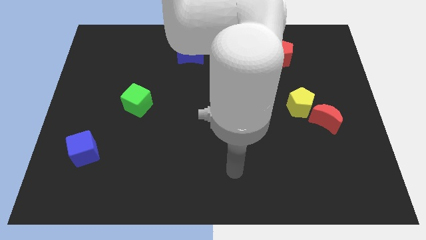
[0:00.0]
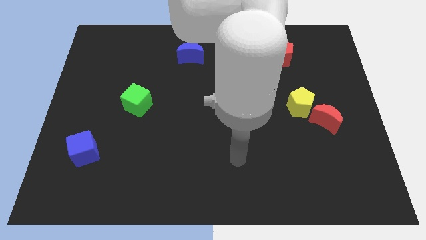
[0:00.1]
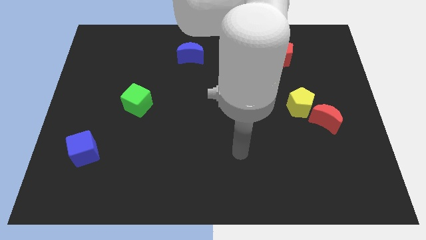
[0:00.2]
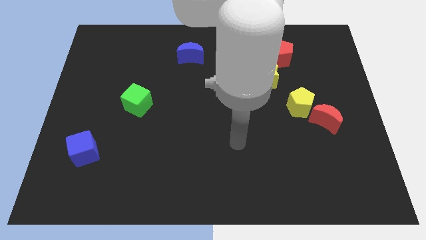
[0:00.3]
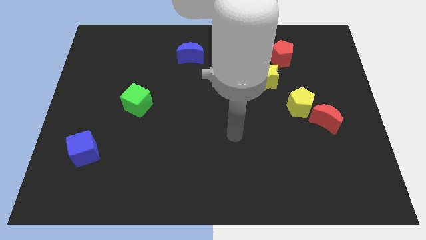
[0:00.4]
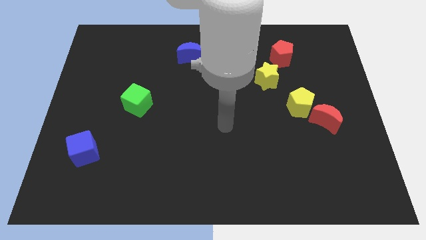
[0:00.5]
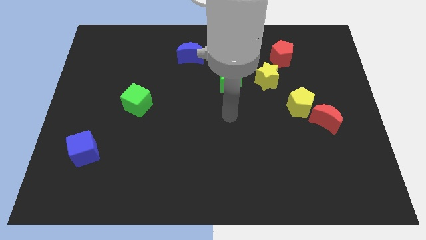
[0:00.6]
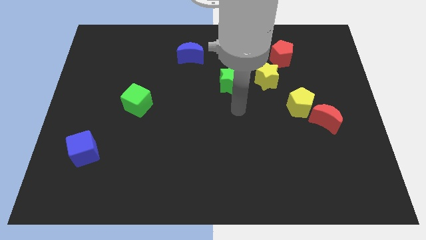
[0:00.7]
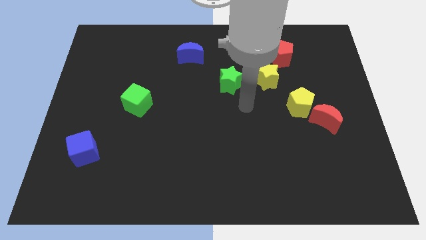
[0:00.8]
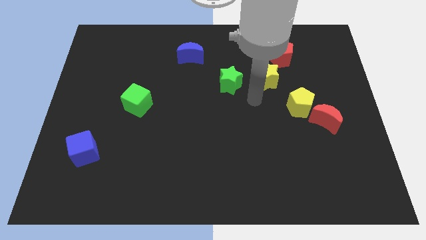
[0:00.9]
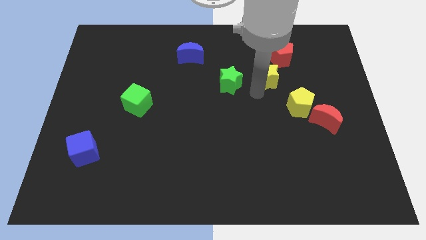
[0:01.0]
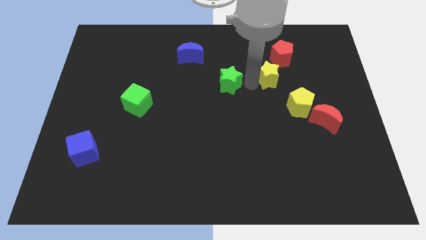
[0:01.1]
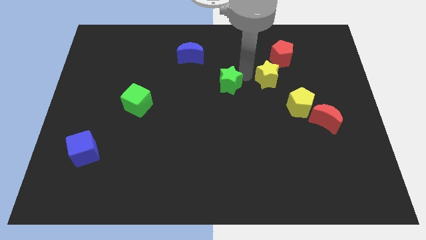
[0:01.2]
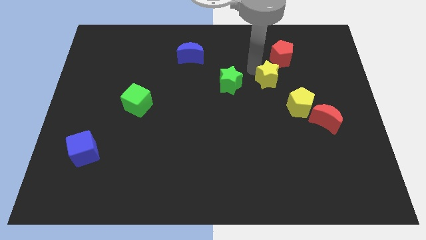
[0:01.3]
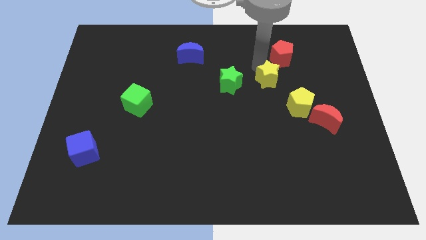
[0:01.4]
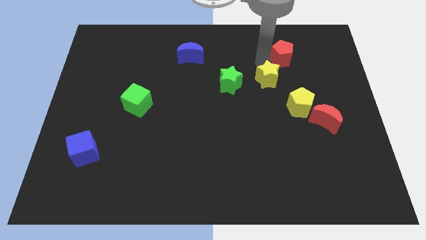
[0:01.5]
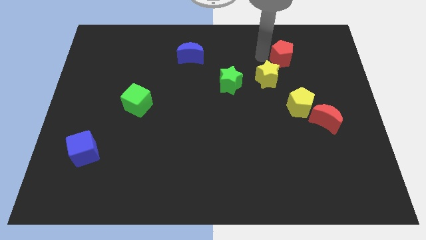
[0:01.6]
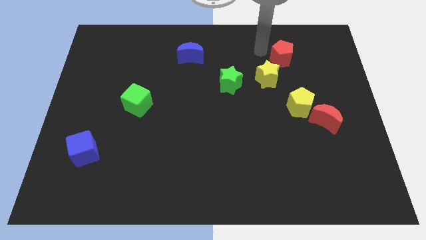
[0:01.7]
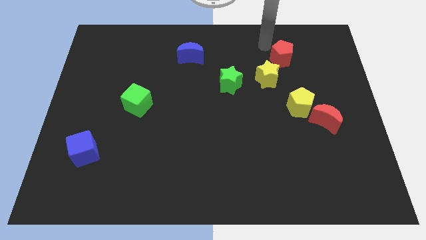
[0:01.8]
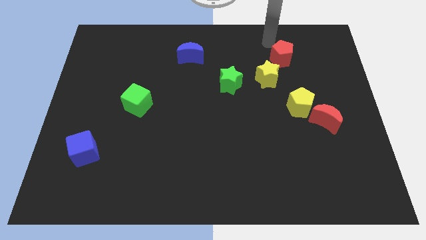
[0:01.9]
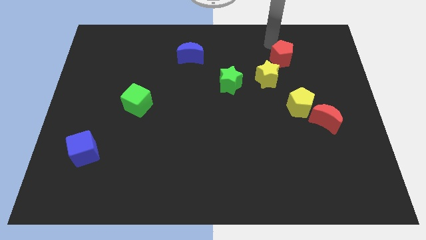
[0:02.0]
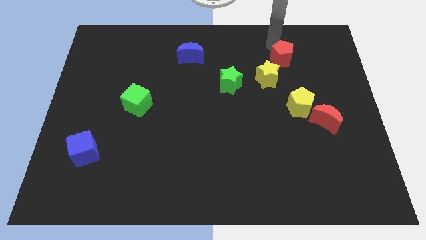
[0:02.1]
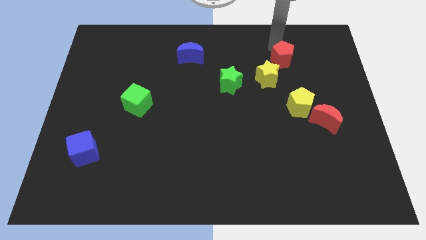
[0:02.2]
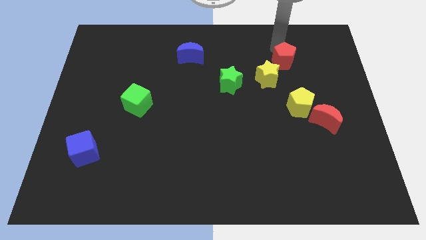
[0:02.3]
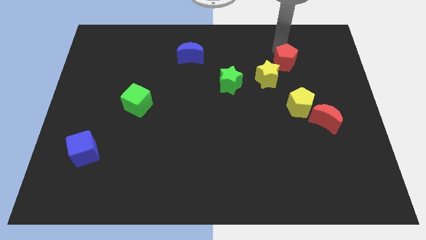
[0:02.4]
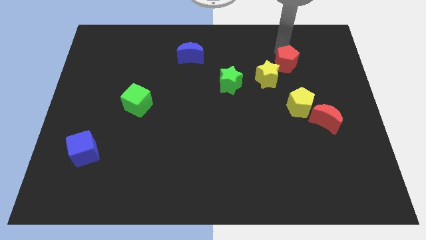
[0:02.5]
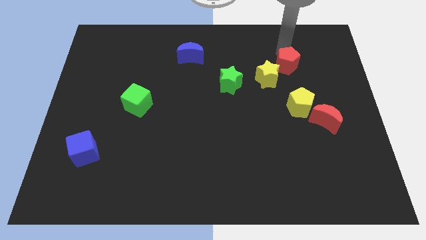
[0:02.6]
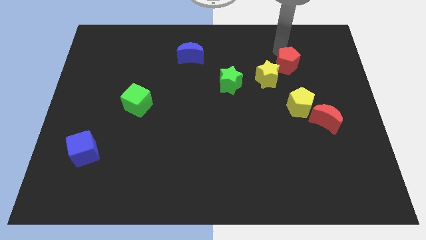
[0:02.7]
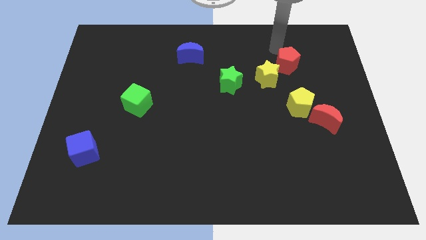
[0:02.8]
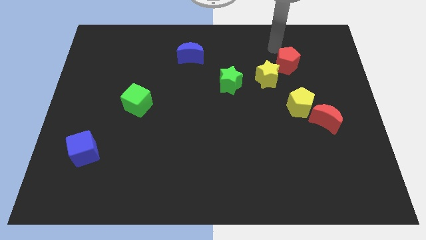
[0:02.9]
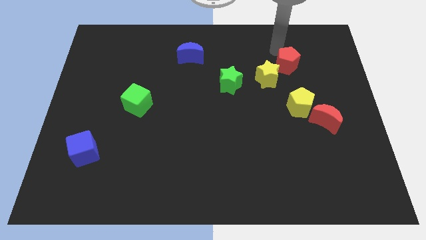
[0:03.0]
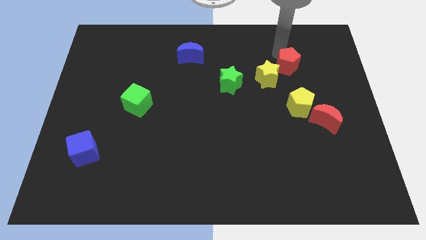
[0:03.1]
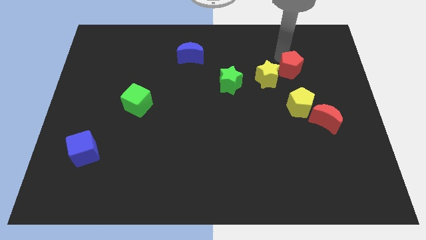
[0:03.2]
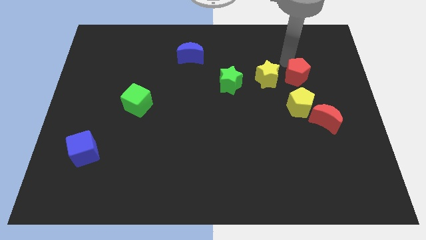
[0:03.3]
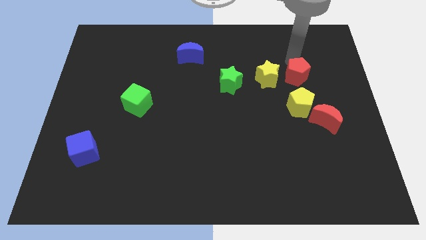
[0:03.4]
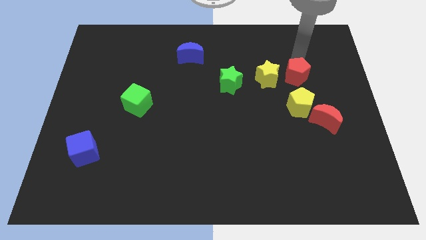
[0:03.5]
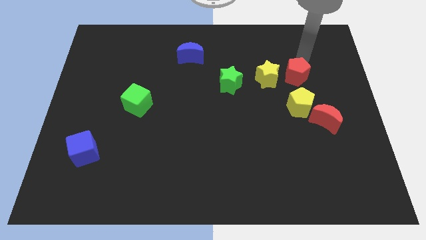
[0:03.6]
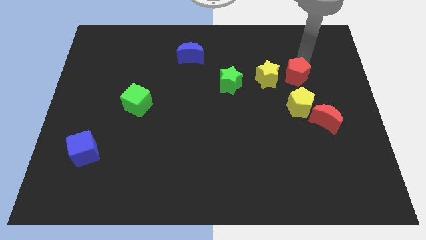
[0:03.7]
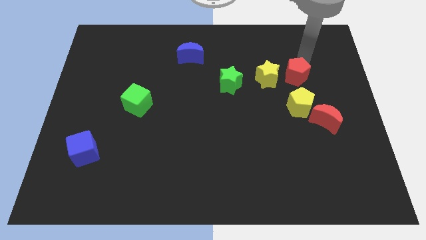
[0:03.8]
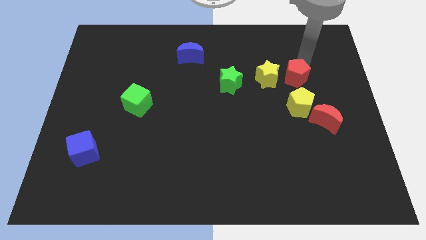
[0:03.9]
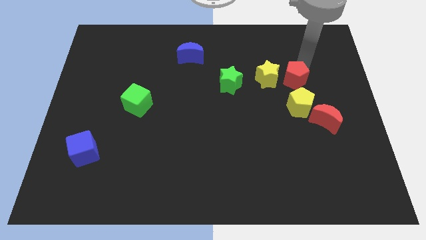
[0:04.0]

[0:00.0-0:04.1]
move the red pentagon a little bit down

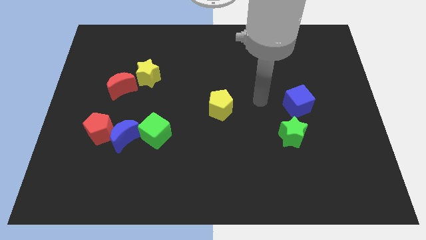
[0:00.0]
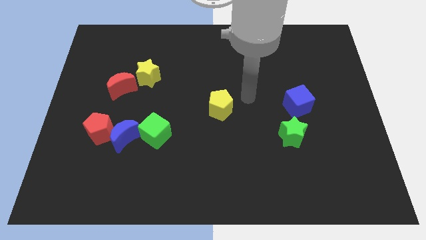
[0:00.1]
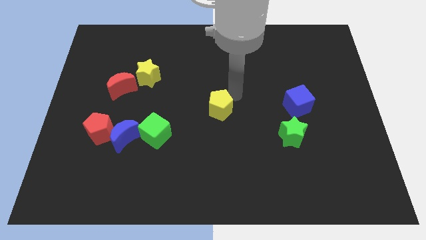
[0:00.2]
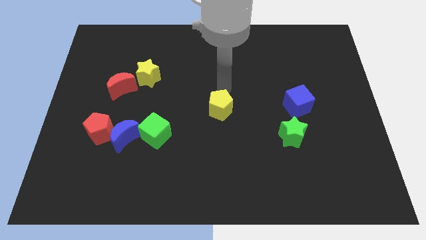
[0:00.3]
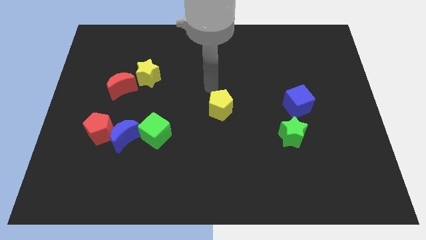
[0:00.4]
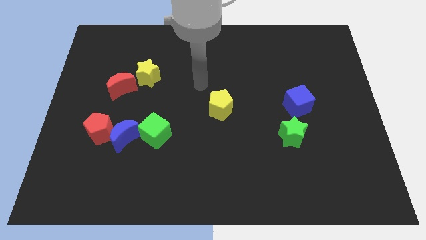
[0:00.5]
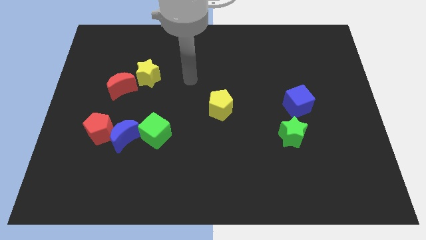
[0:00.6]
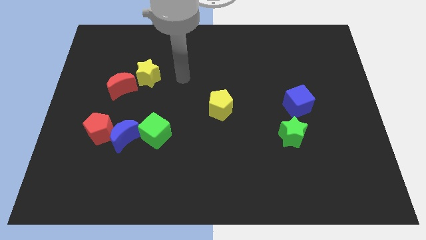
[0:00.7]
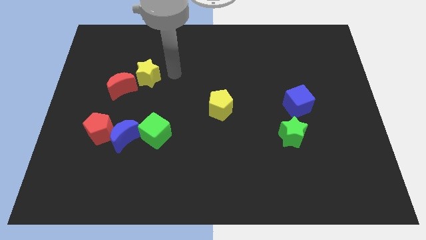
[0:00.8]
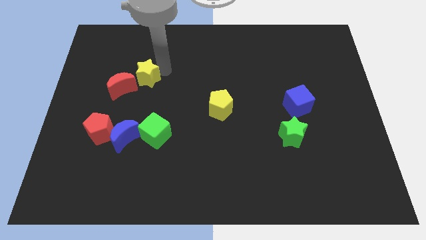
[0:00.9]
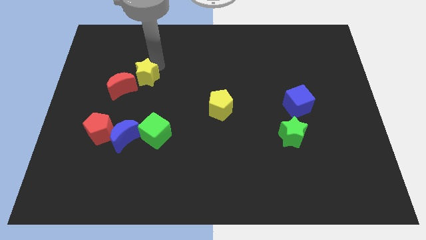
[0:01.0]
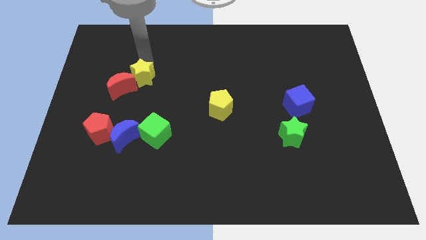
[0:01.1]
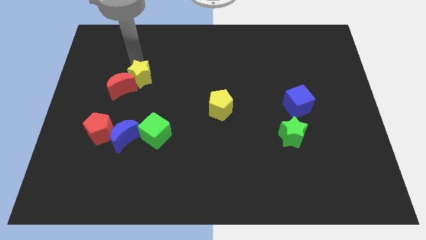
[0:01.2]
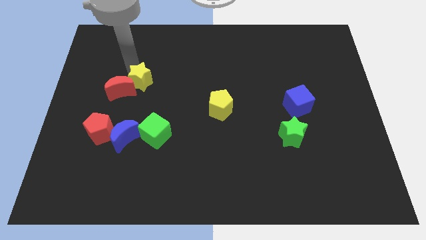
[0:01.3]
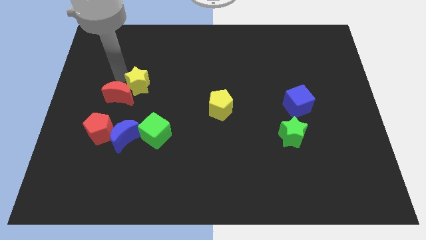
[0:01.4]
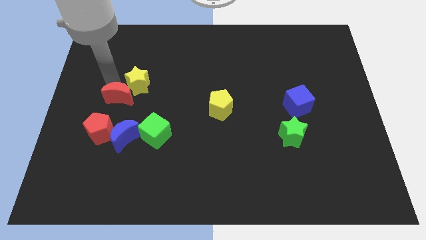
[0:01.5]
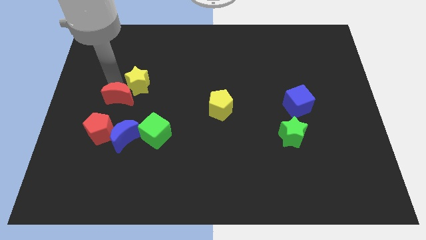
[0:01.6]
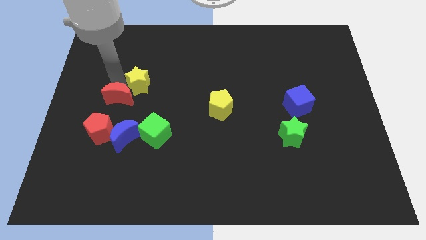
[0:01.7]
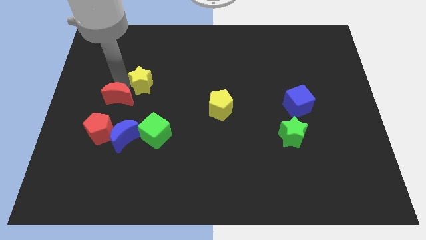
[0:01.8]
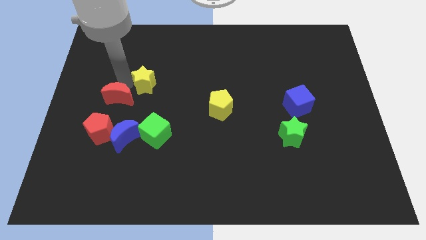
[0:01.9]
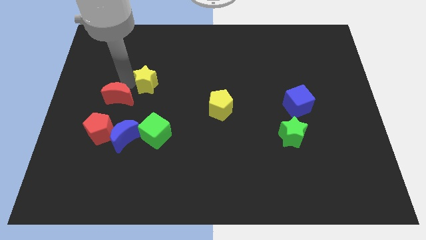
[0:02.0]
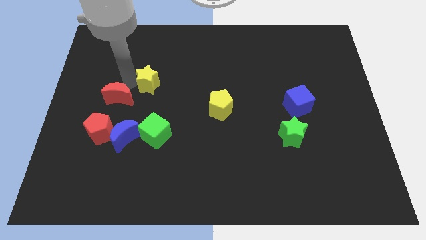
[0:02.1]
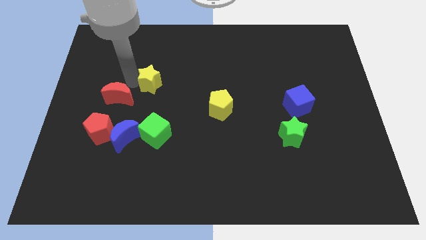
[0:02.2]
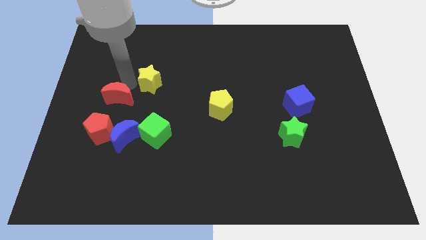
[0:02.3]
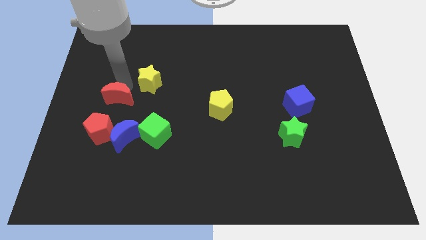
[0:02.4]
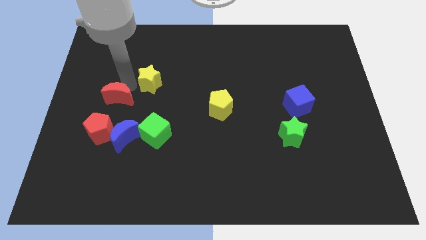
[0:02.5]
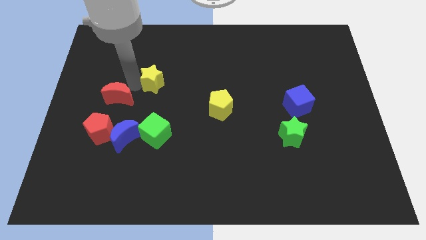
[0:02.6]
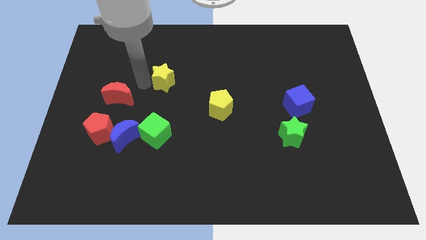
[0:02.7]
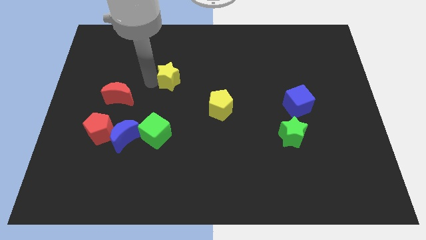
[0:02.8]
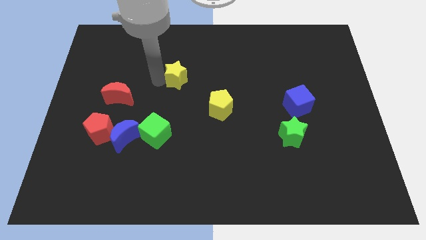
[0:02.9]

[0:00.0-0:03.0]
slightly slide the yellow star to the right

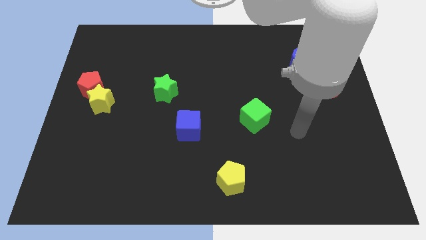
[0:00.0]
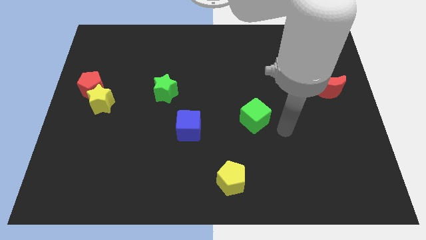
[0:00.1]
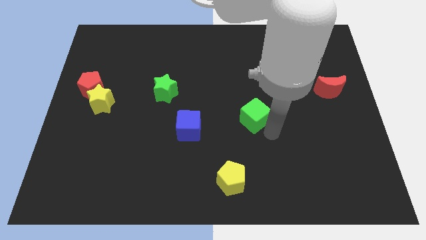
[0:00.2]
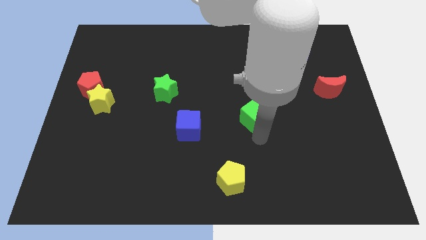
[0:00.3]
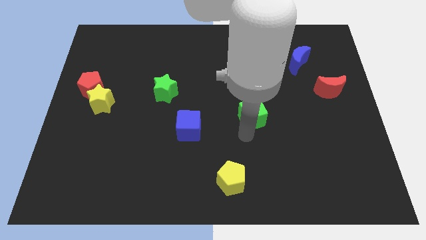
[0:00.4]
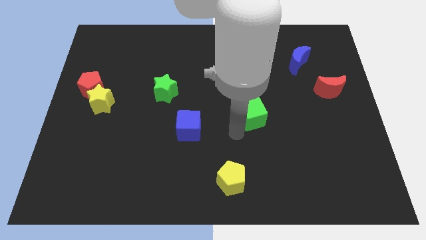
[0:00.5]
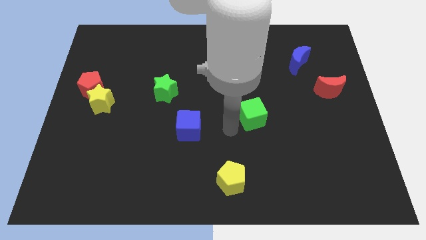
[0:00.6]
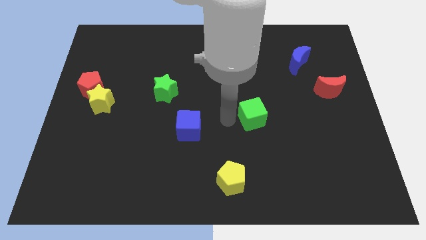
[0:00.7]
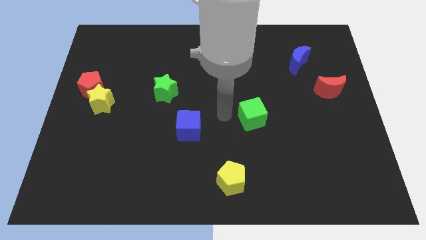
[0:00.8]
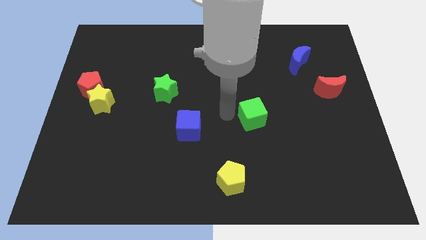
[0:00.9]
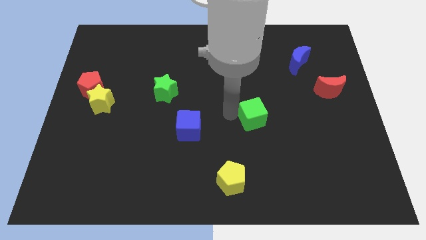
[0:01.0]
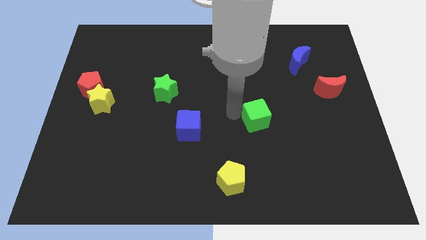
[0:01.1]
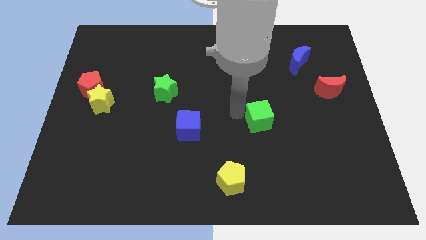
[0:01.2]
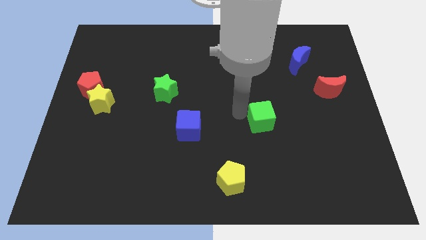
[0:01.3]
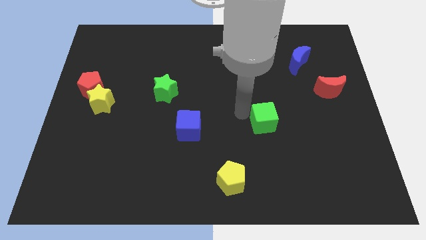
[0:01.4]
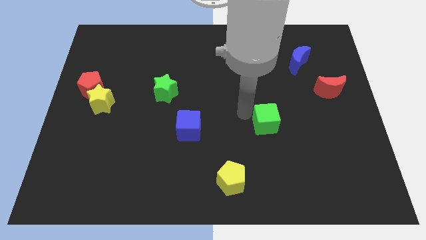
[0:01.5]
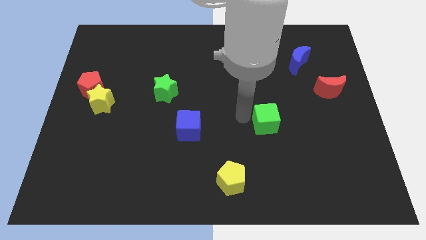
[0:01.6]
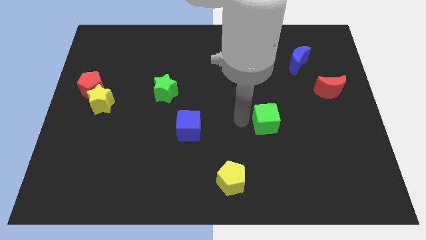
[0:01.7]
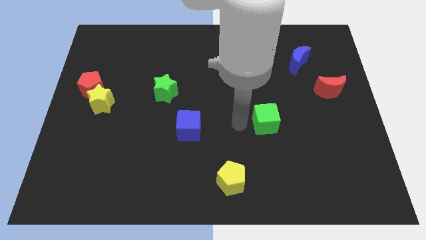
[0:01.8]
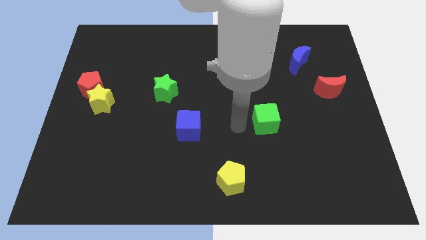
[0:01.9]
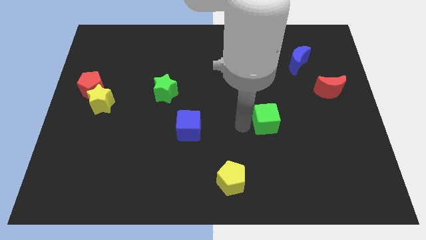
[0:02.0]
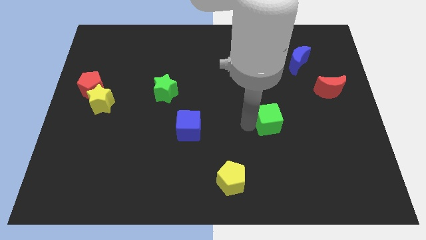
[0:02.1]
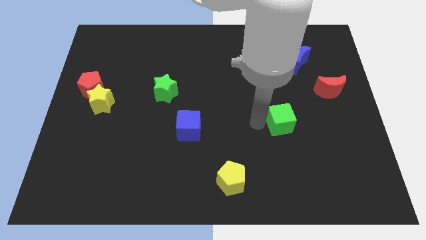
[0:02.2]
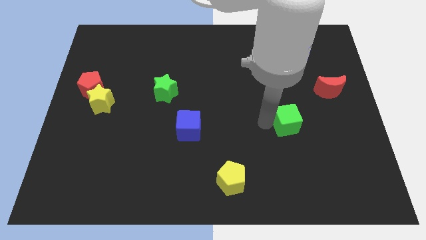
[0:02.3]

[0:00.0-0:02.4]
slide the green cube a little right
